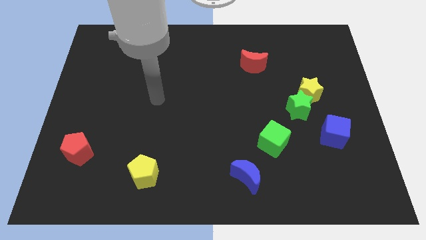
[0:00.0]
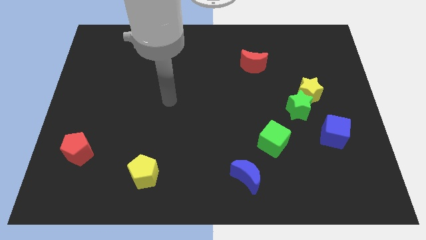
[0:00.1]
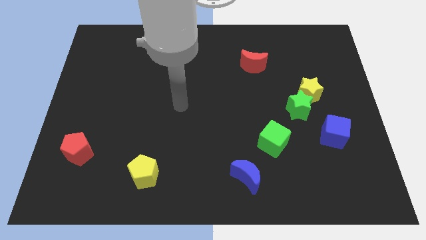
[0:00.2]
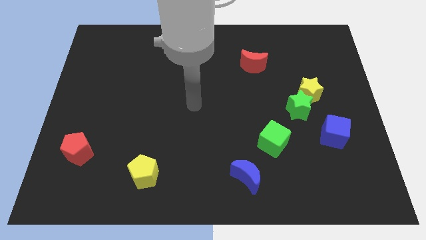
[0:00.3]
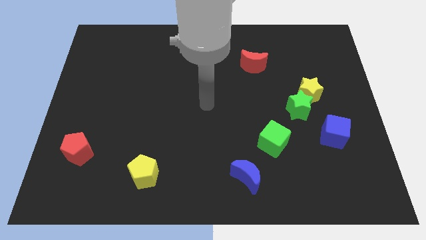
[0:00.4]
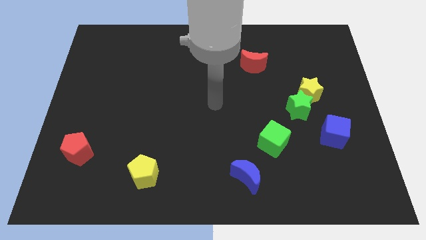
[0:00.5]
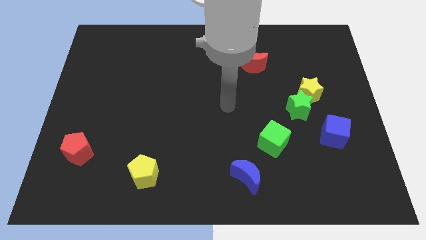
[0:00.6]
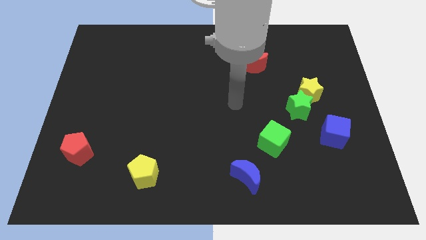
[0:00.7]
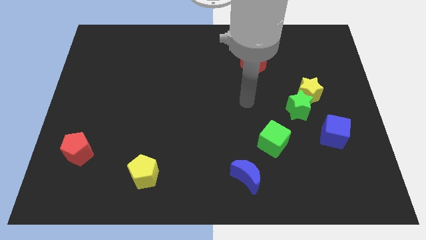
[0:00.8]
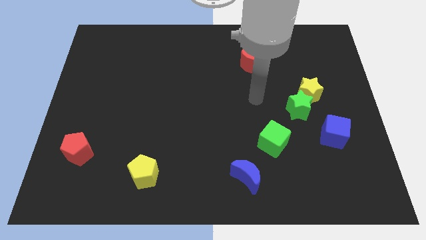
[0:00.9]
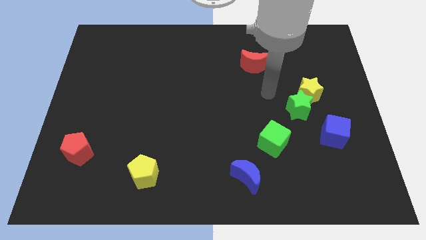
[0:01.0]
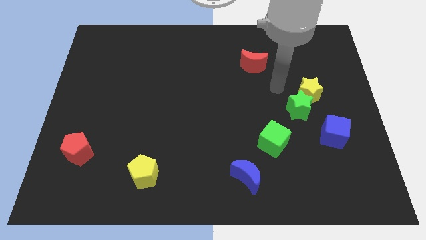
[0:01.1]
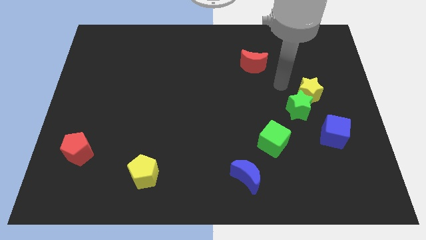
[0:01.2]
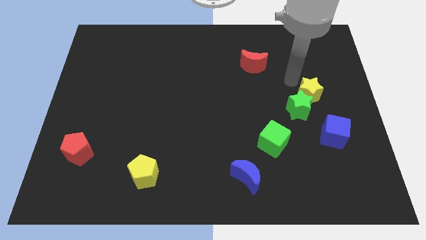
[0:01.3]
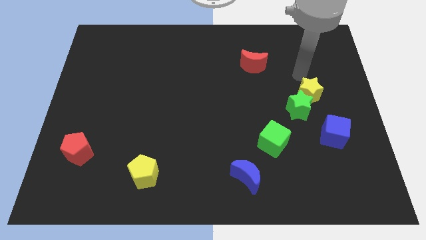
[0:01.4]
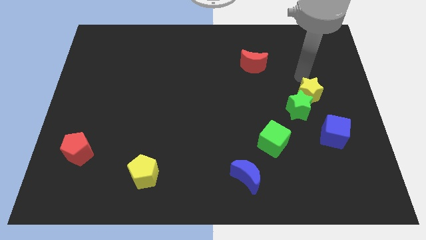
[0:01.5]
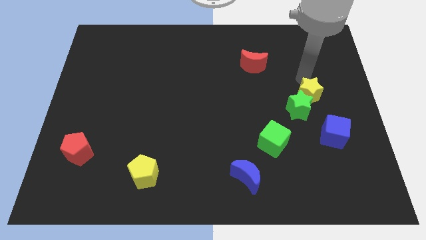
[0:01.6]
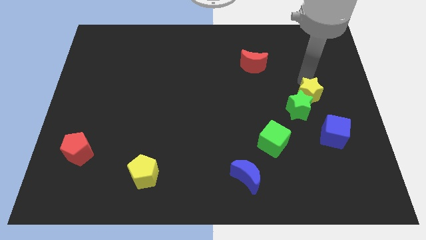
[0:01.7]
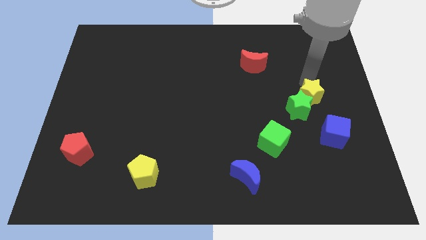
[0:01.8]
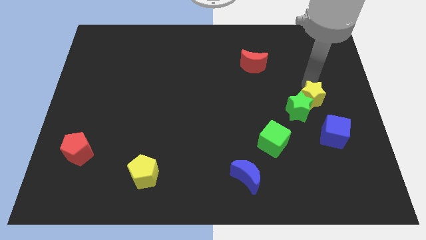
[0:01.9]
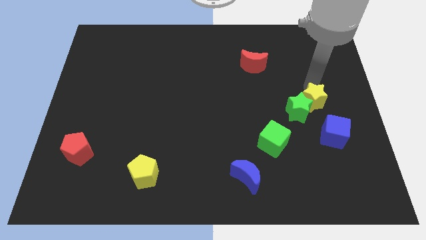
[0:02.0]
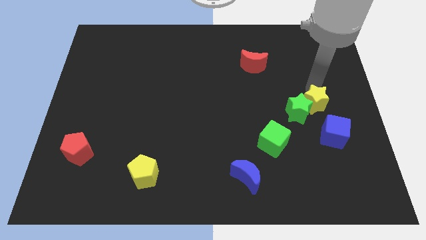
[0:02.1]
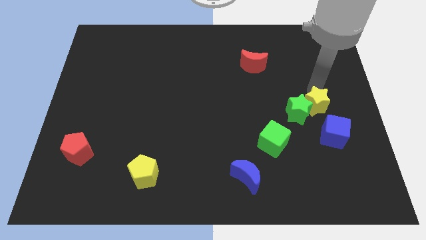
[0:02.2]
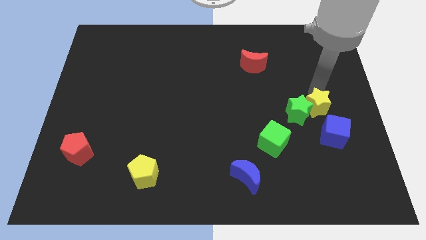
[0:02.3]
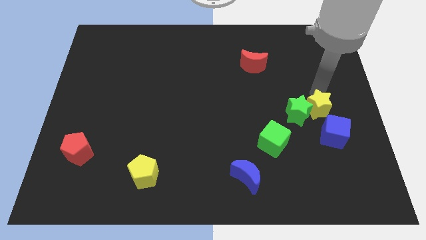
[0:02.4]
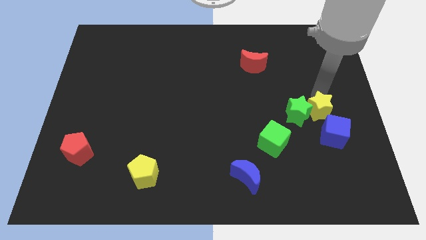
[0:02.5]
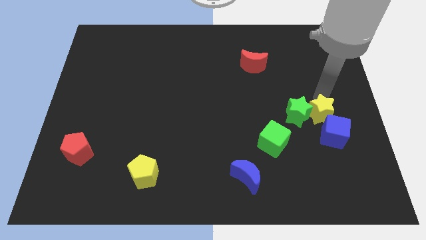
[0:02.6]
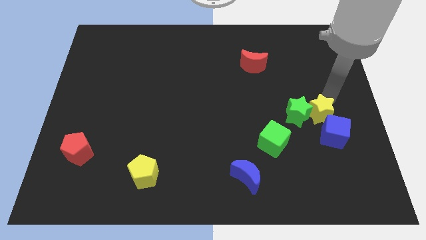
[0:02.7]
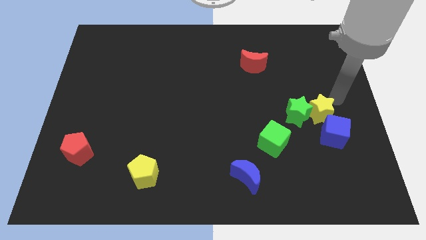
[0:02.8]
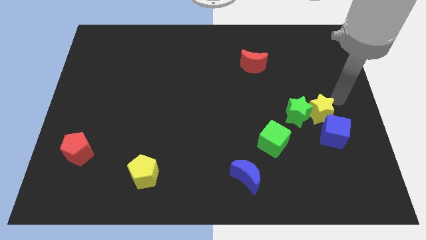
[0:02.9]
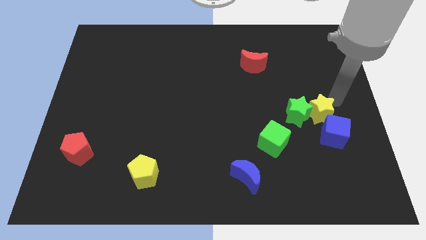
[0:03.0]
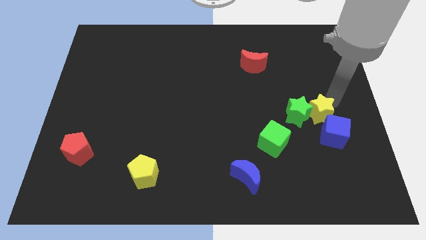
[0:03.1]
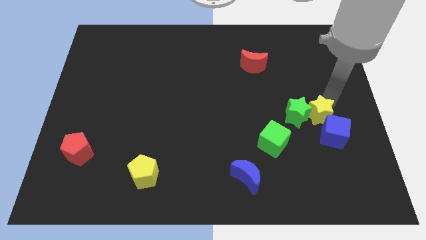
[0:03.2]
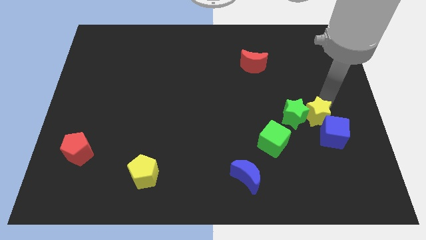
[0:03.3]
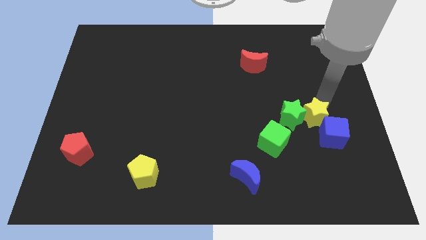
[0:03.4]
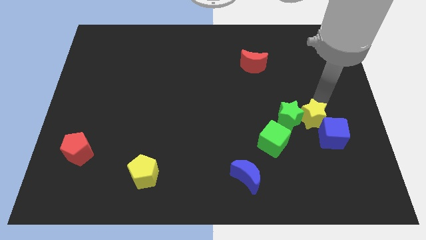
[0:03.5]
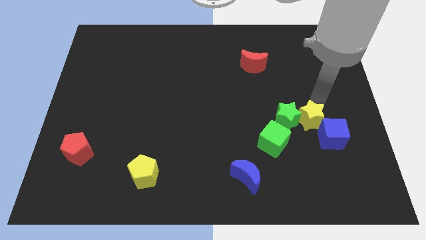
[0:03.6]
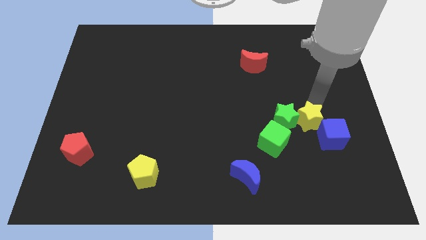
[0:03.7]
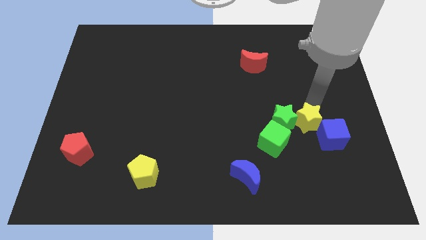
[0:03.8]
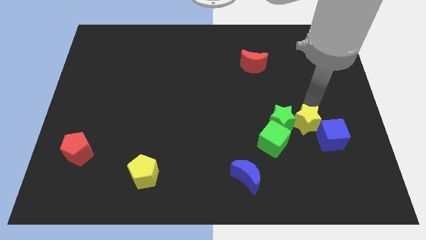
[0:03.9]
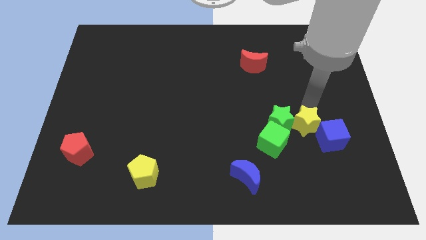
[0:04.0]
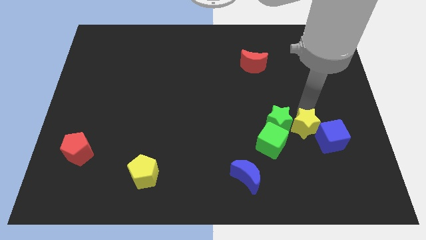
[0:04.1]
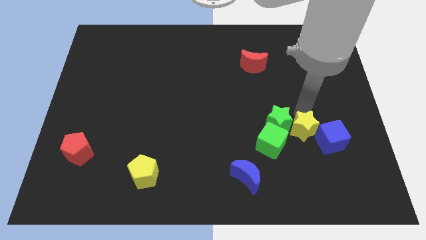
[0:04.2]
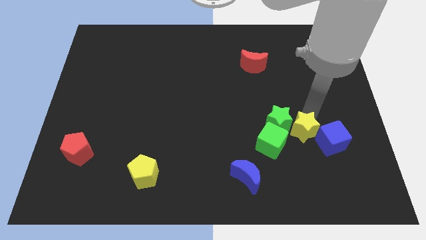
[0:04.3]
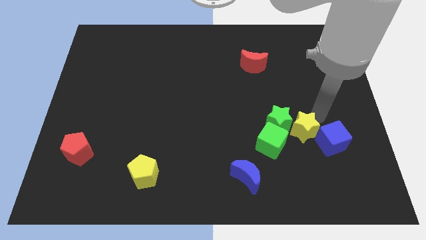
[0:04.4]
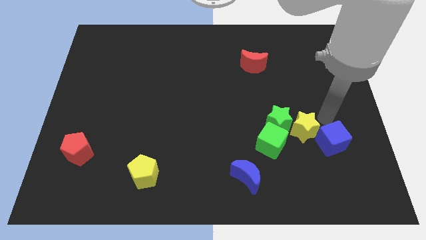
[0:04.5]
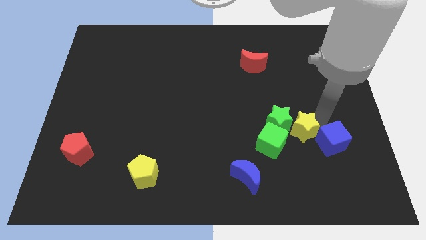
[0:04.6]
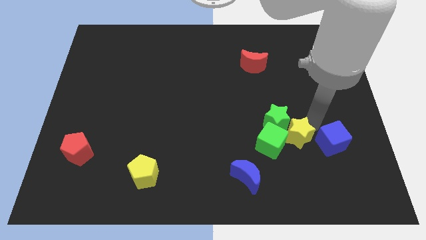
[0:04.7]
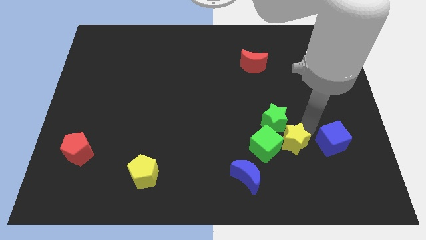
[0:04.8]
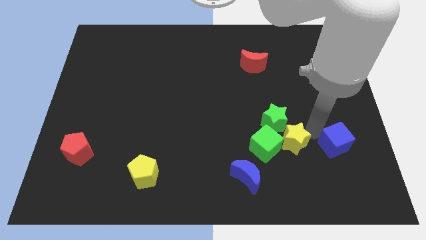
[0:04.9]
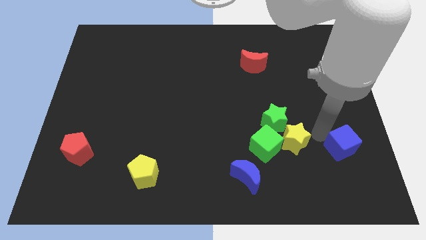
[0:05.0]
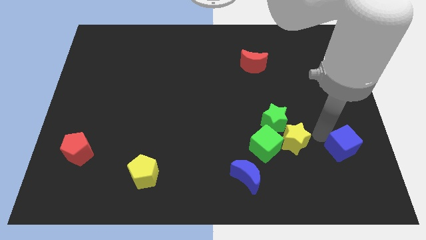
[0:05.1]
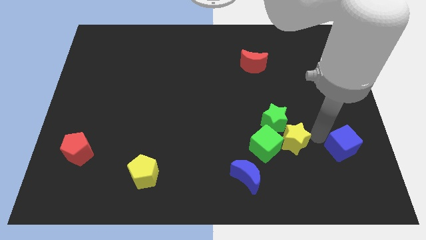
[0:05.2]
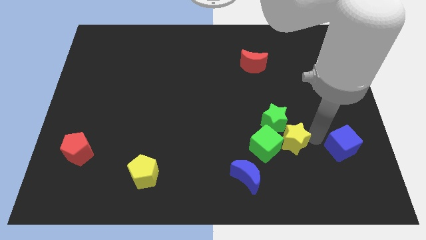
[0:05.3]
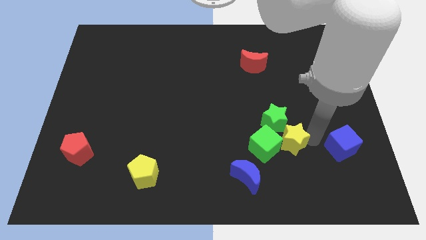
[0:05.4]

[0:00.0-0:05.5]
put the yellow star to the green cube

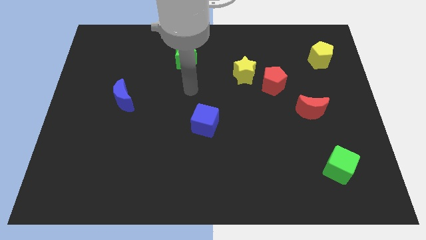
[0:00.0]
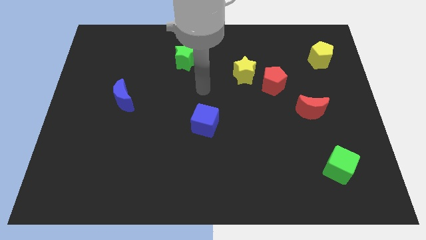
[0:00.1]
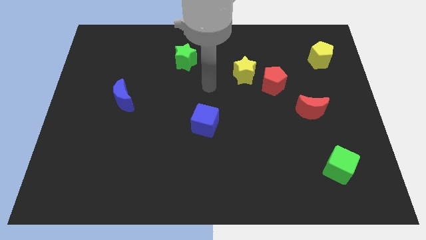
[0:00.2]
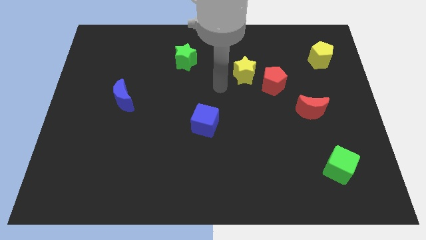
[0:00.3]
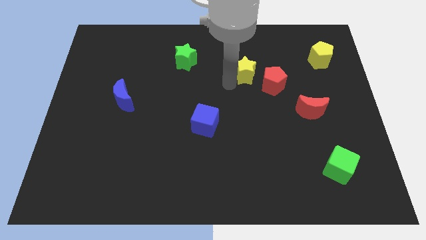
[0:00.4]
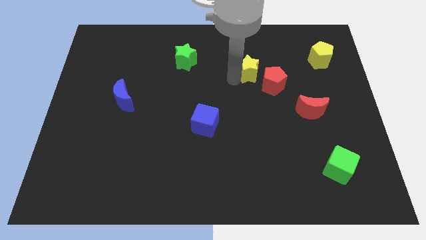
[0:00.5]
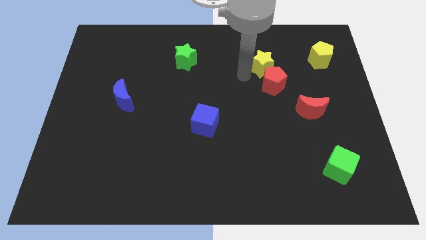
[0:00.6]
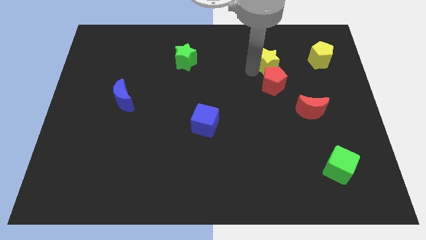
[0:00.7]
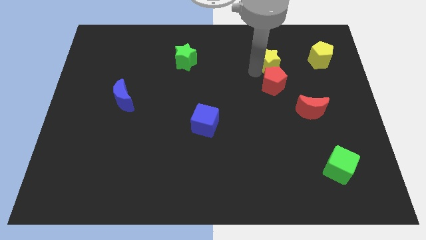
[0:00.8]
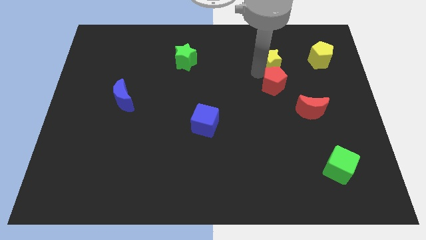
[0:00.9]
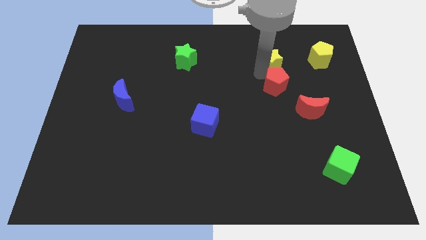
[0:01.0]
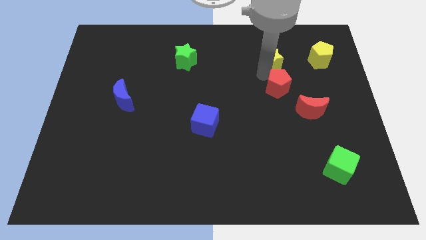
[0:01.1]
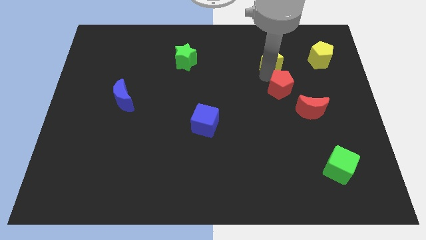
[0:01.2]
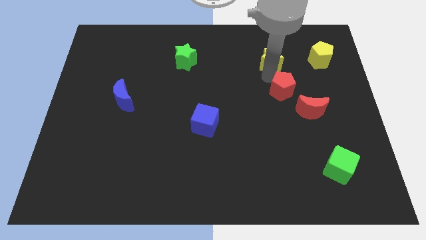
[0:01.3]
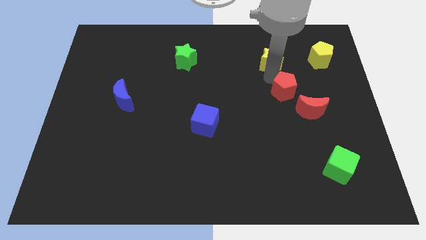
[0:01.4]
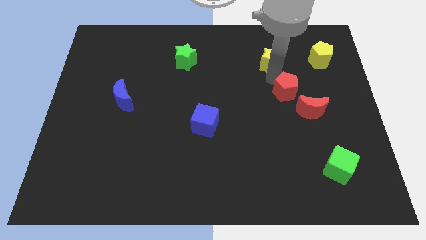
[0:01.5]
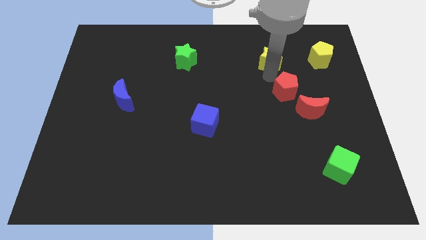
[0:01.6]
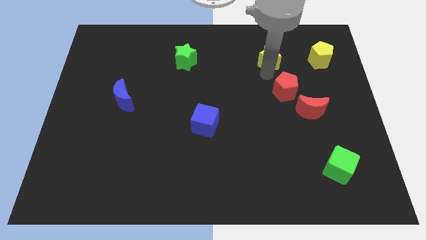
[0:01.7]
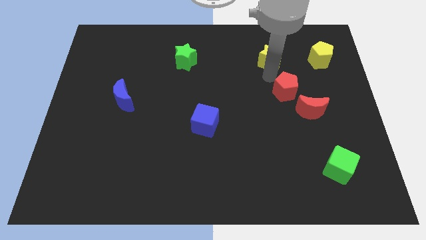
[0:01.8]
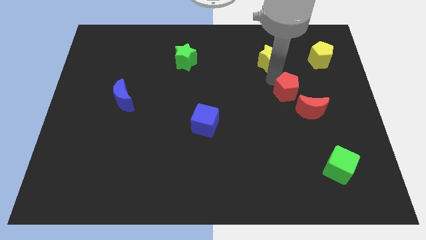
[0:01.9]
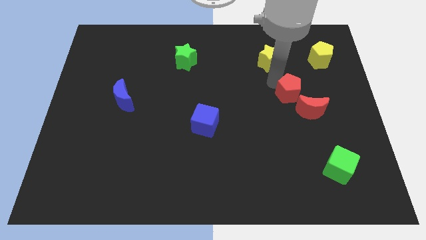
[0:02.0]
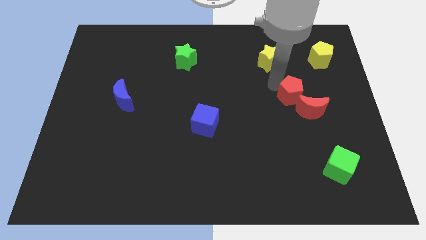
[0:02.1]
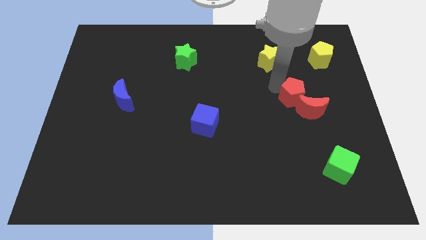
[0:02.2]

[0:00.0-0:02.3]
slide the red pentagon close to the red moon
